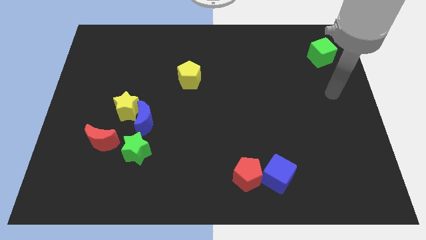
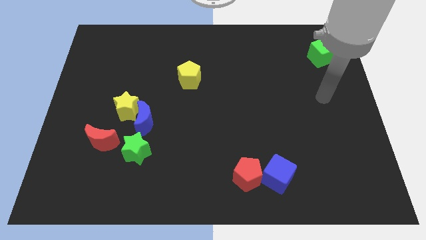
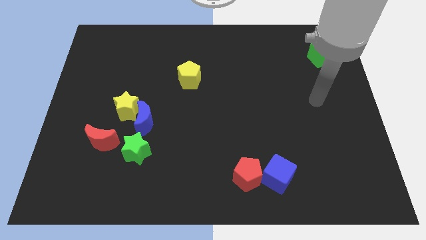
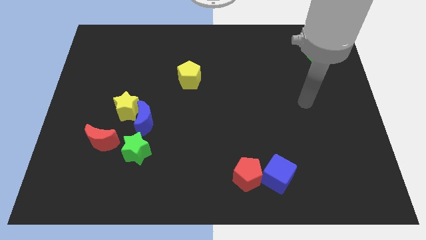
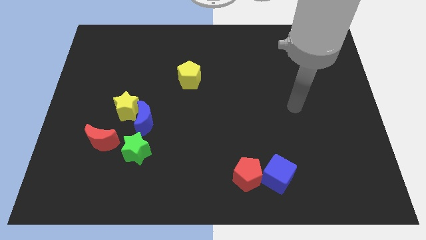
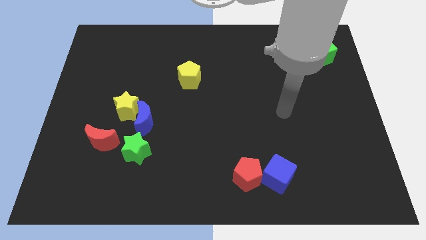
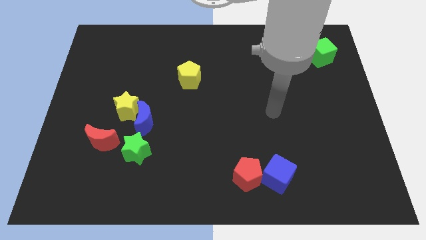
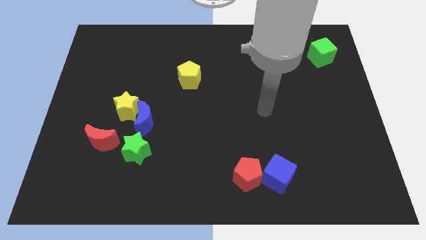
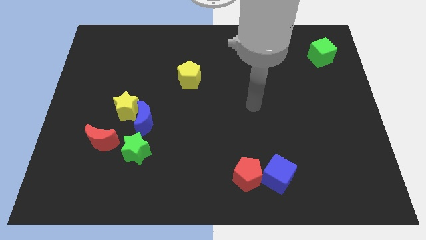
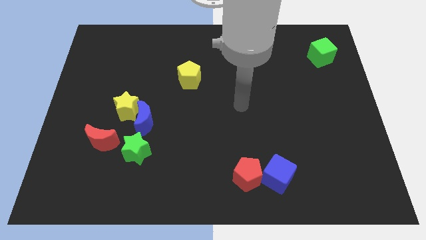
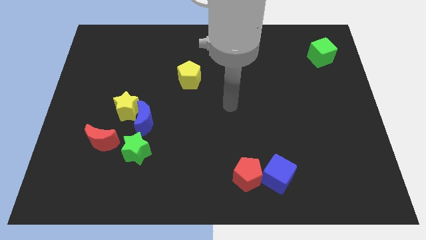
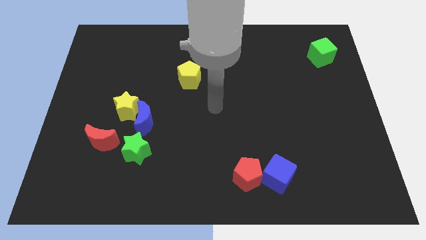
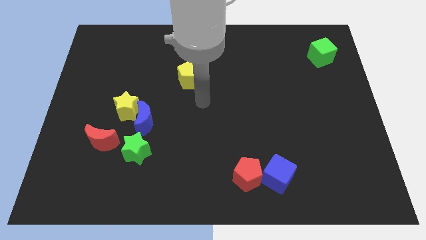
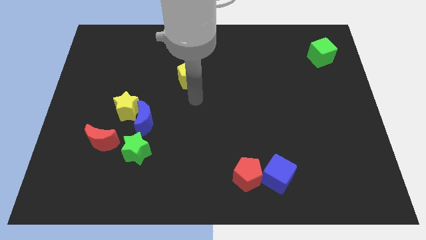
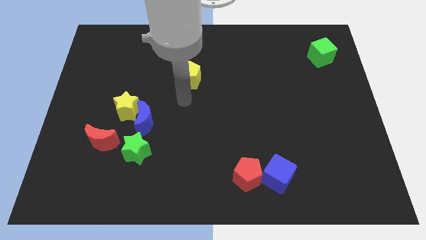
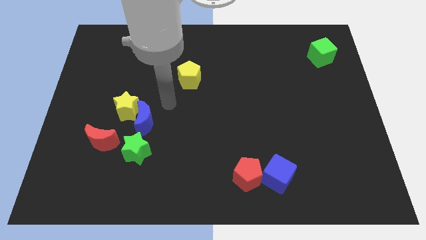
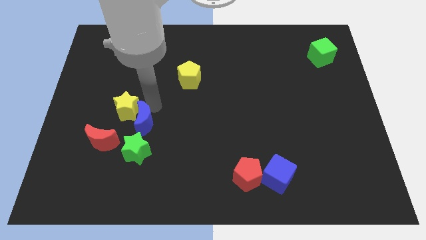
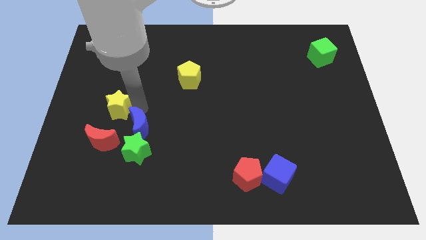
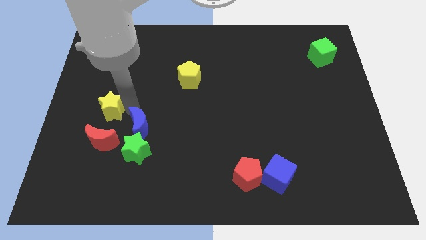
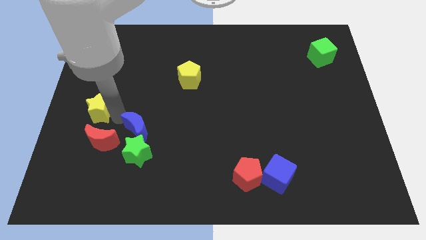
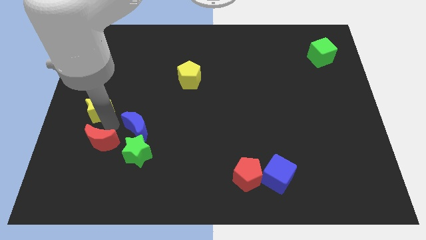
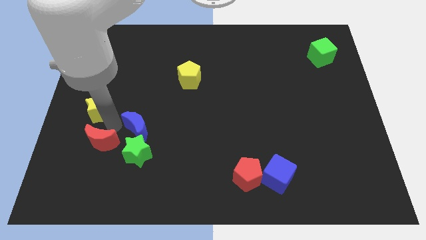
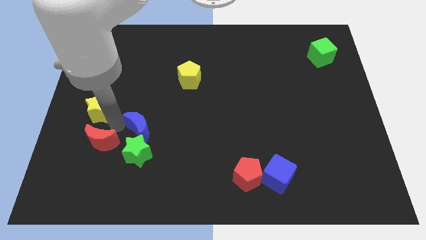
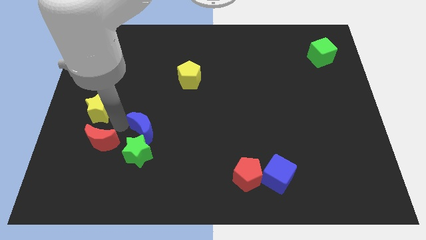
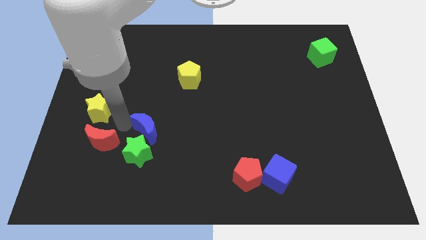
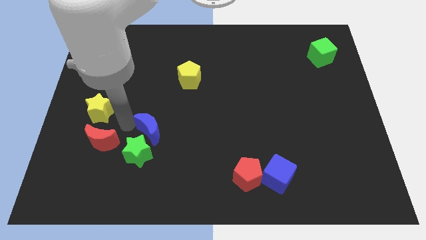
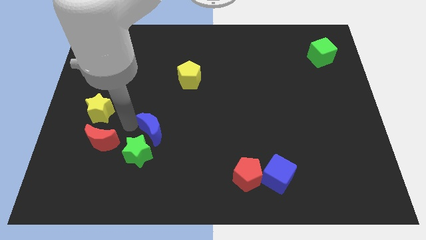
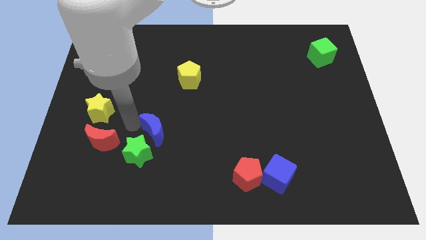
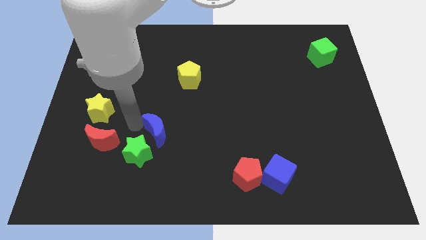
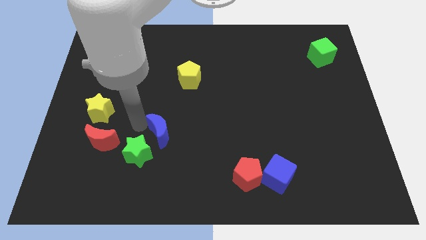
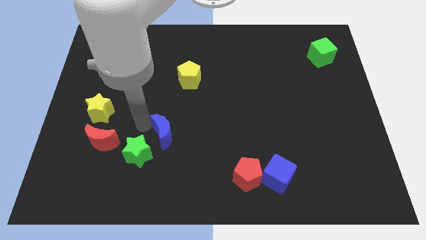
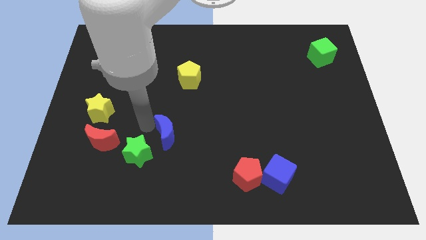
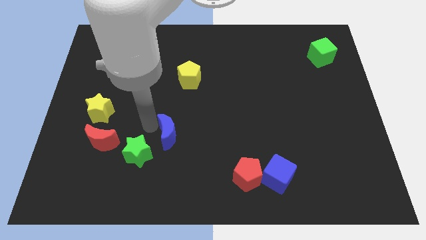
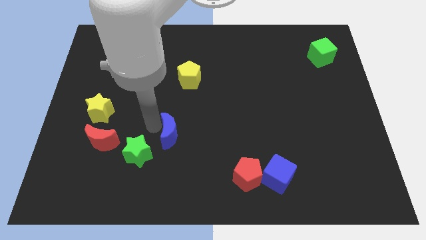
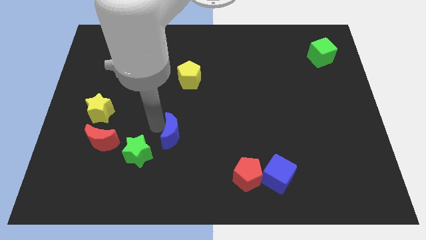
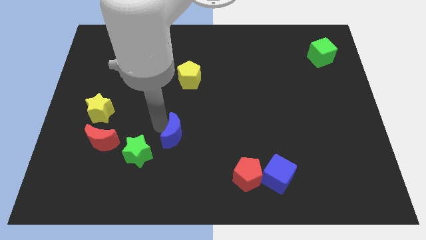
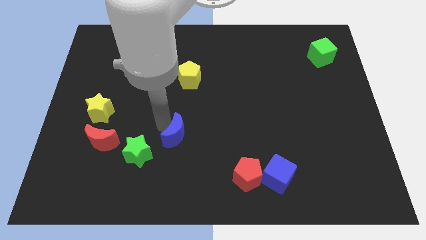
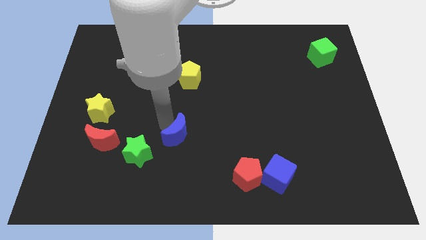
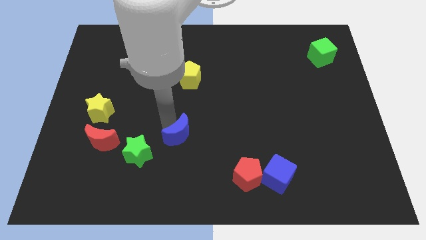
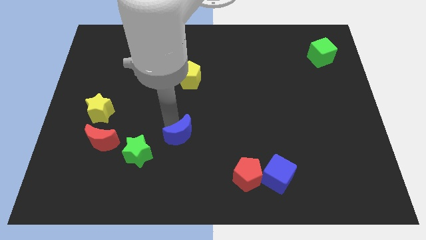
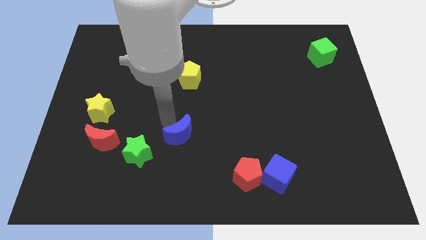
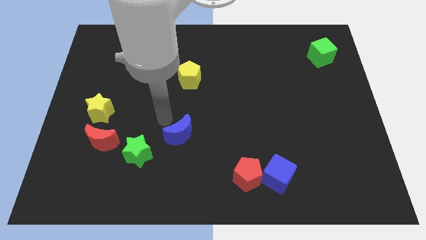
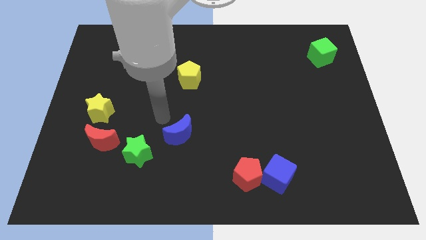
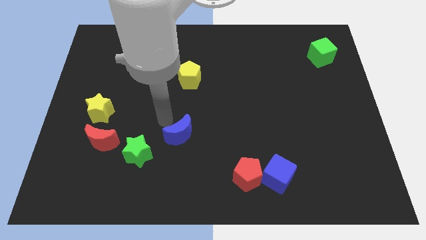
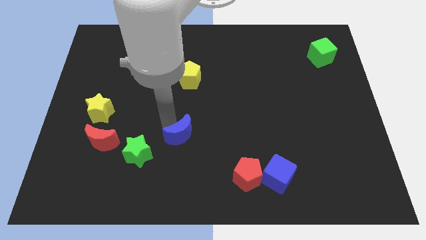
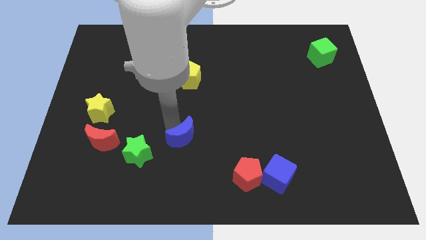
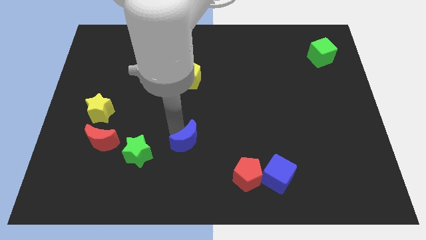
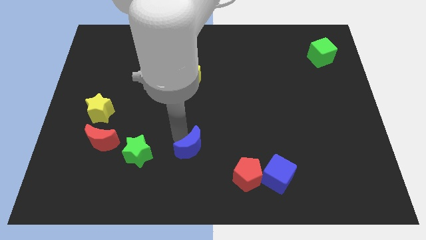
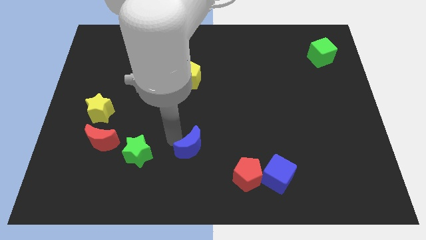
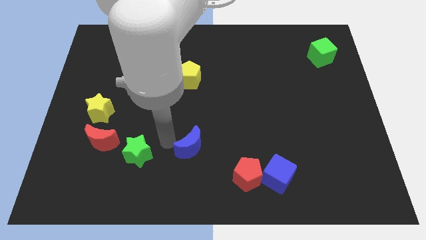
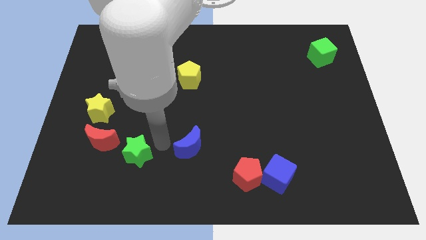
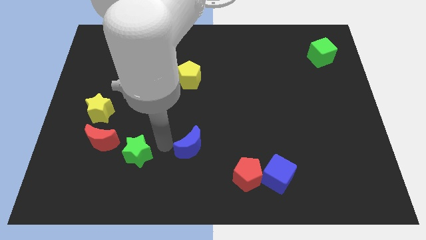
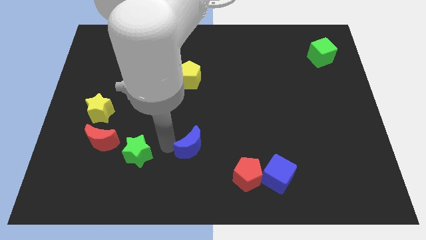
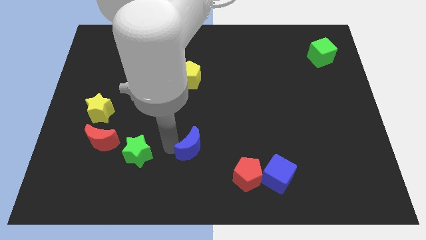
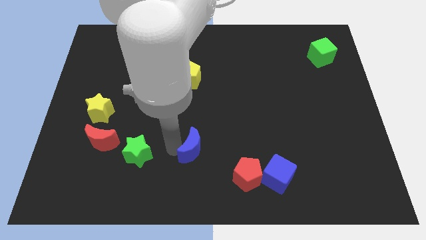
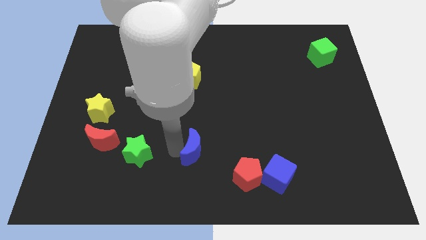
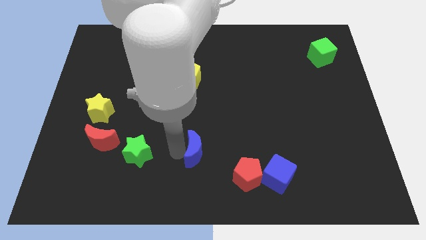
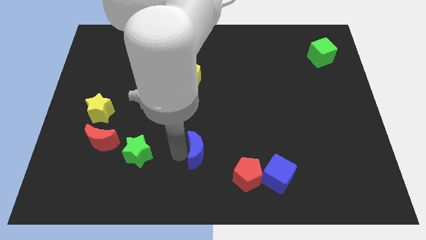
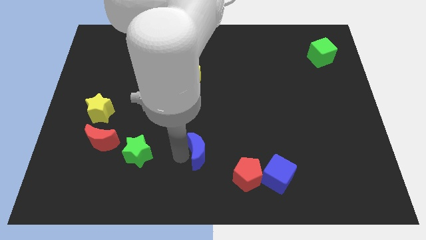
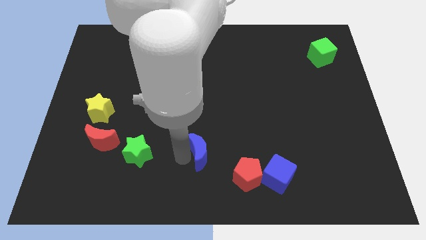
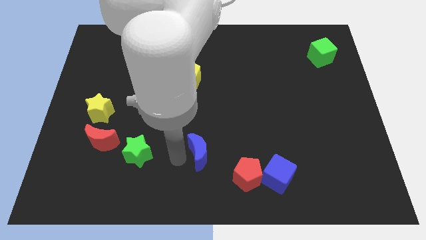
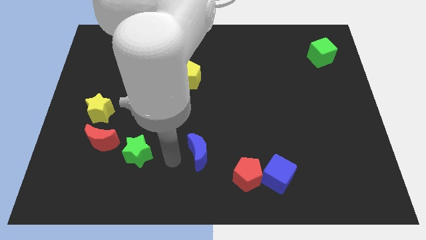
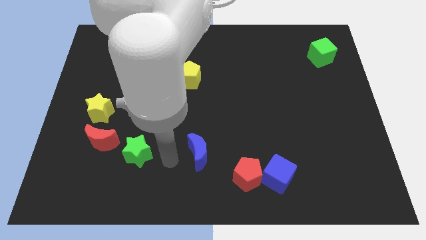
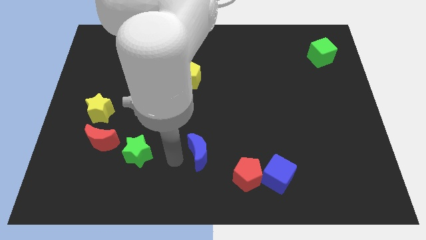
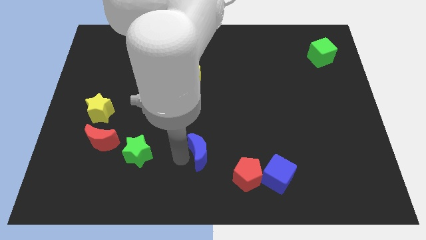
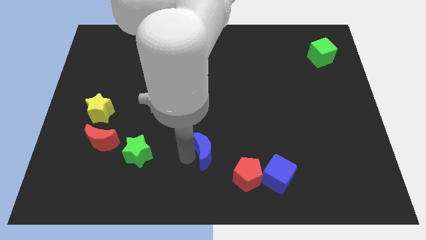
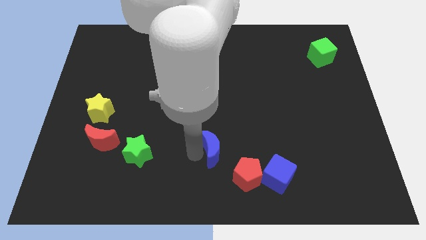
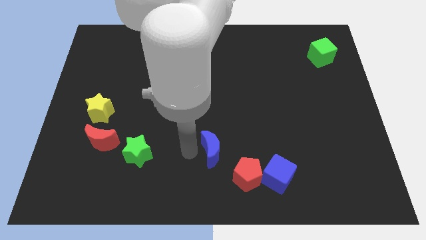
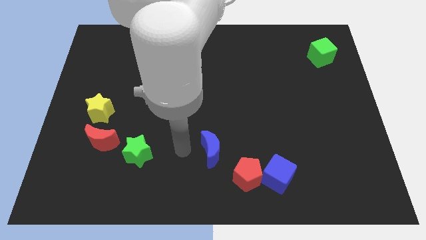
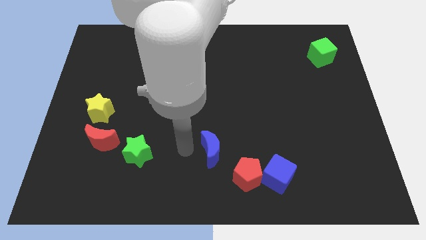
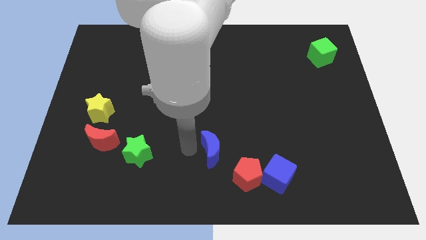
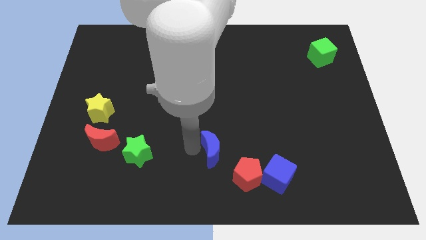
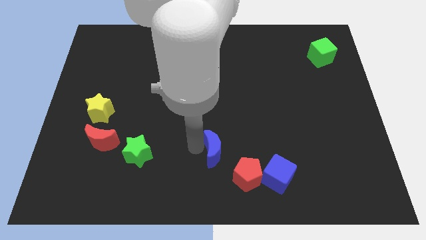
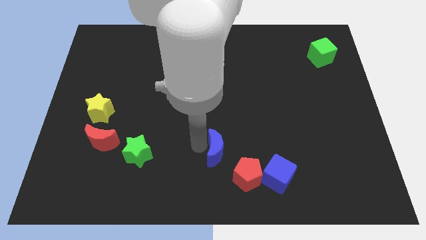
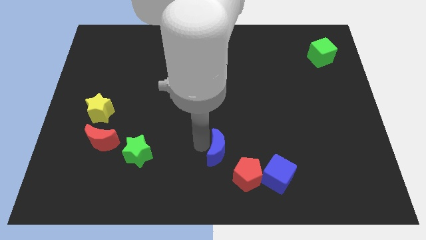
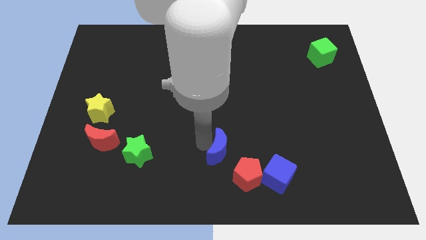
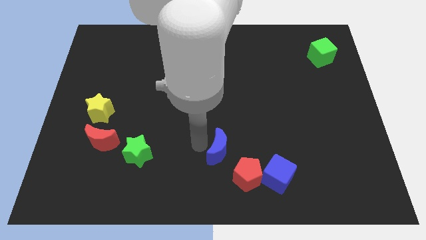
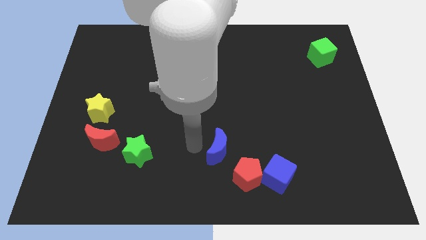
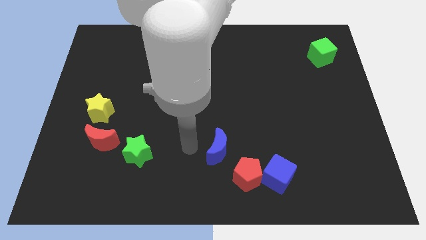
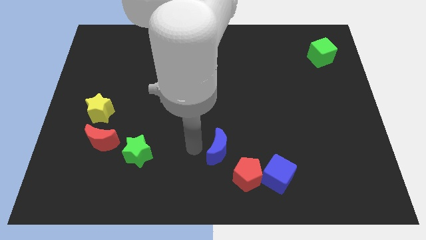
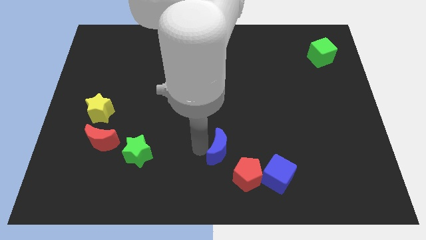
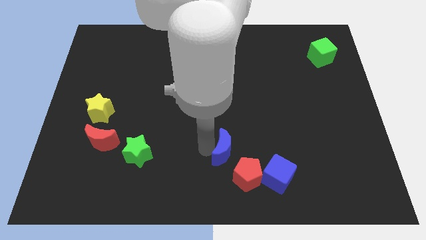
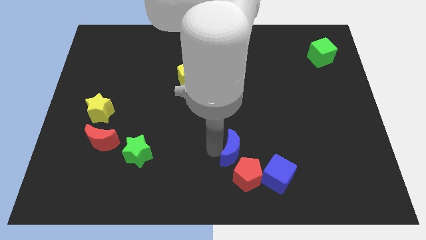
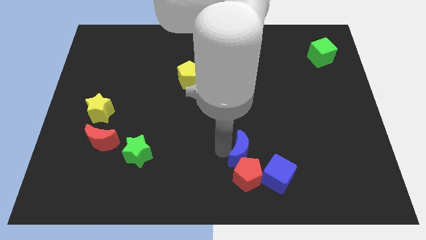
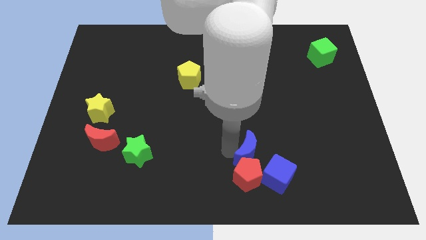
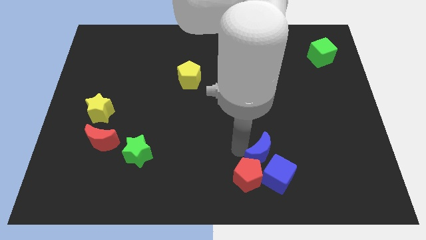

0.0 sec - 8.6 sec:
slide the blue moon to the blue cube
